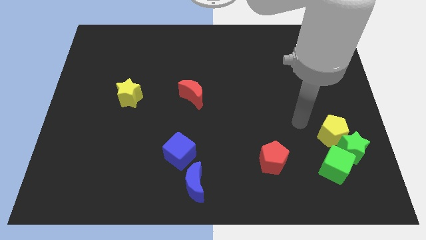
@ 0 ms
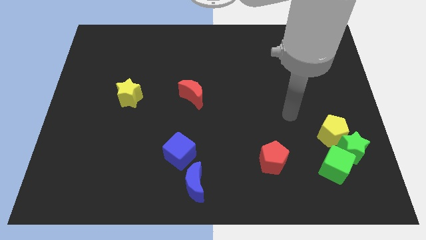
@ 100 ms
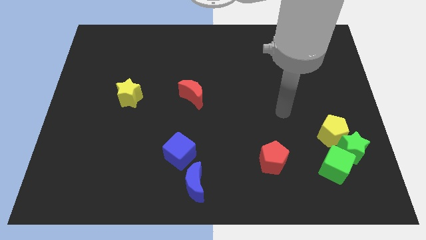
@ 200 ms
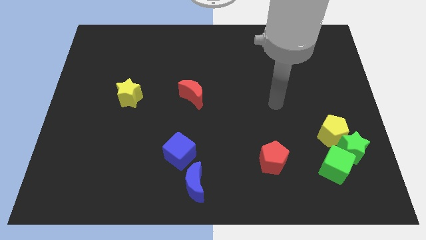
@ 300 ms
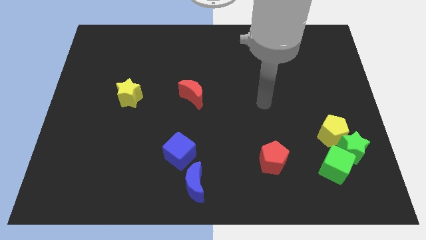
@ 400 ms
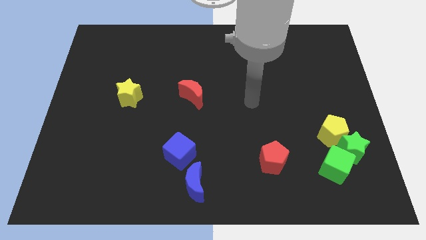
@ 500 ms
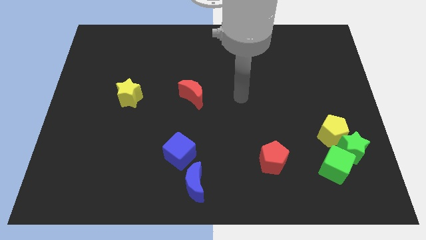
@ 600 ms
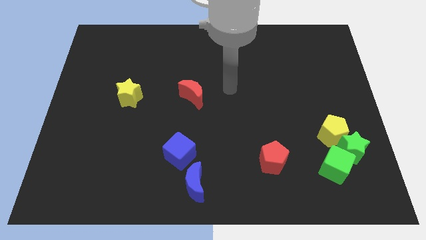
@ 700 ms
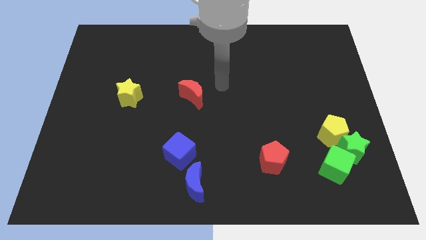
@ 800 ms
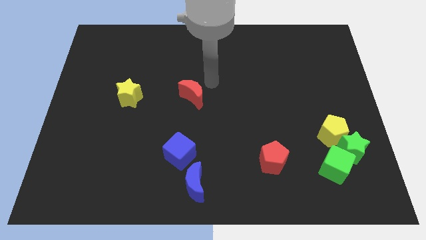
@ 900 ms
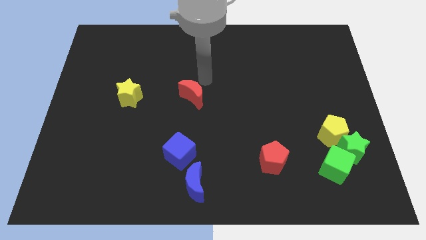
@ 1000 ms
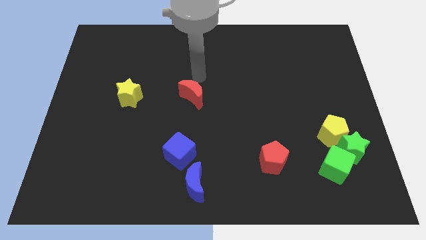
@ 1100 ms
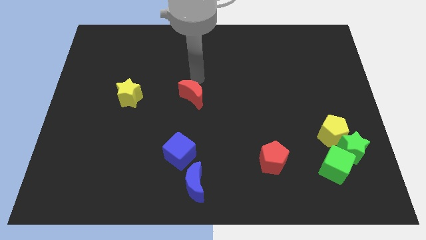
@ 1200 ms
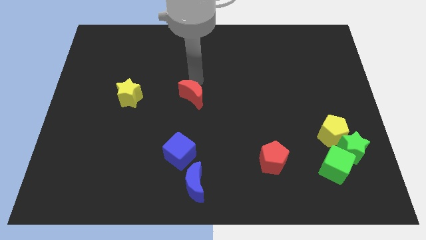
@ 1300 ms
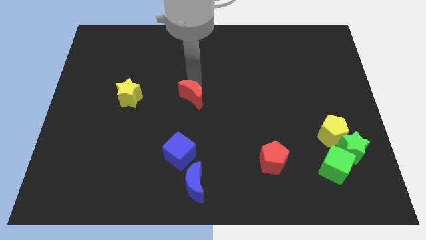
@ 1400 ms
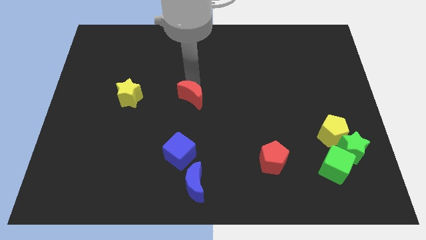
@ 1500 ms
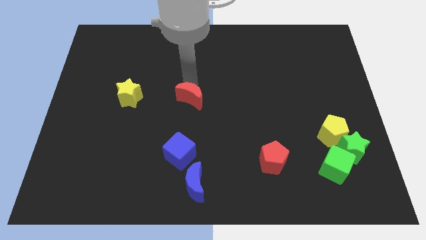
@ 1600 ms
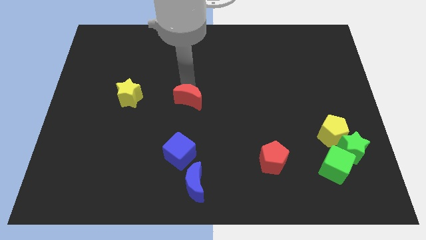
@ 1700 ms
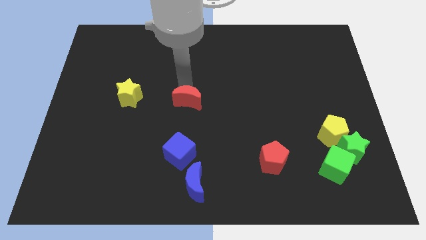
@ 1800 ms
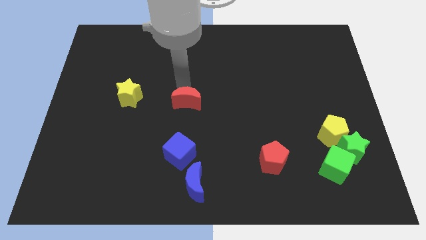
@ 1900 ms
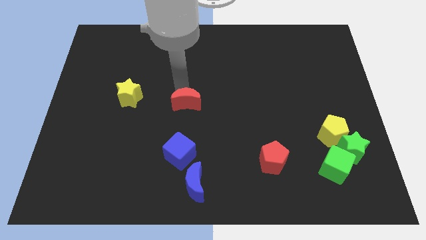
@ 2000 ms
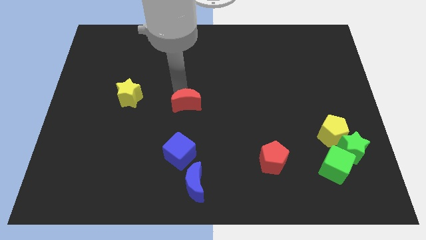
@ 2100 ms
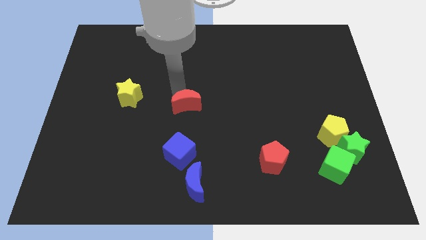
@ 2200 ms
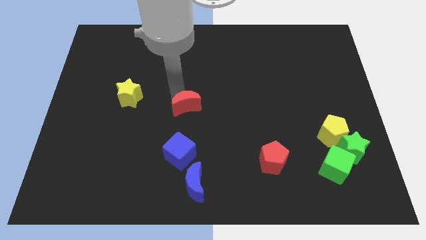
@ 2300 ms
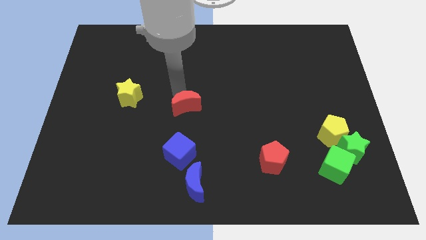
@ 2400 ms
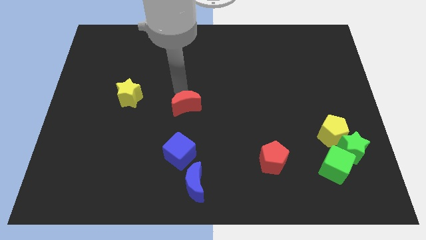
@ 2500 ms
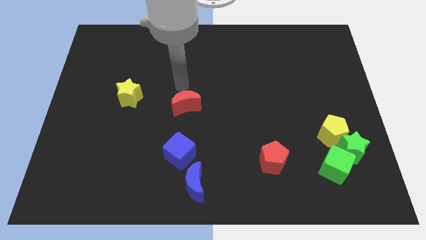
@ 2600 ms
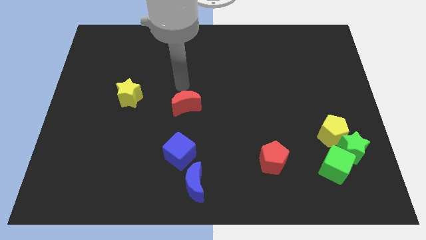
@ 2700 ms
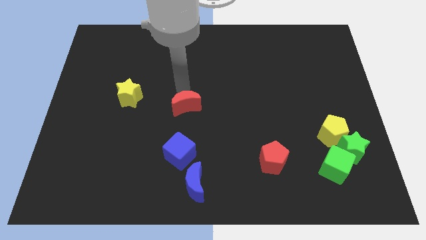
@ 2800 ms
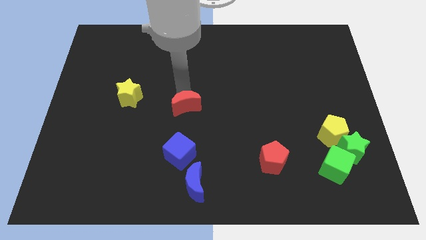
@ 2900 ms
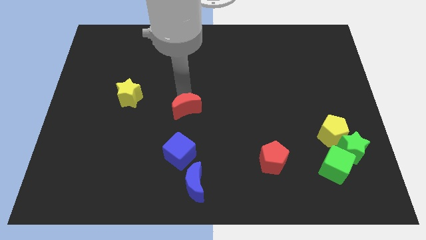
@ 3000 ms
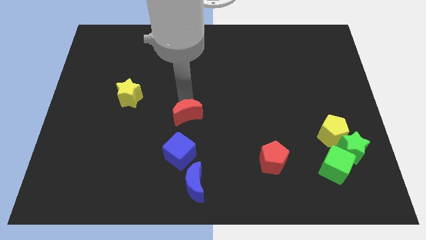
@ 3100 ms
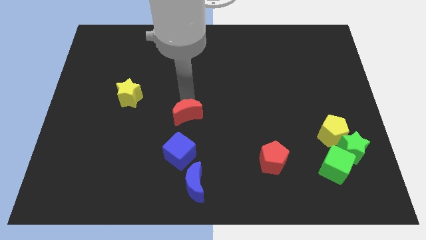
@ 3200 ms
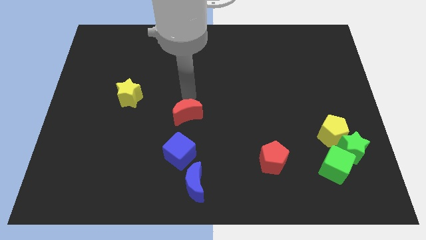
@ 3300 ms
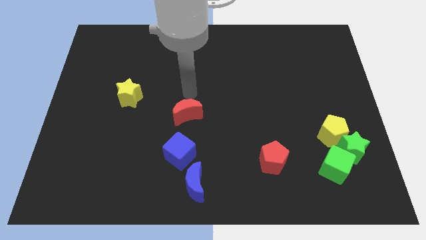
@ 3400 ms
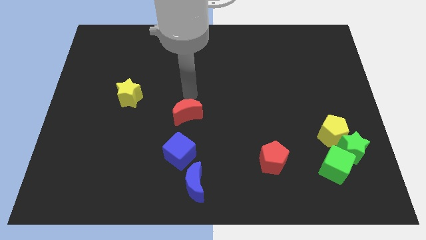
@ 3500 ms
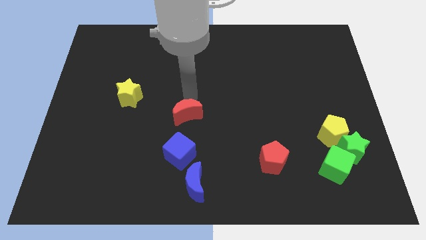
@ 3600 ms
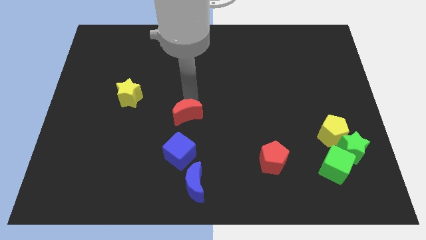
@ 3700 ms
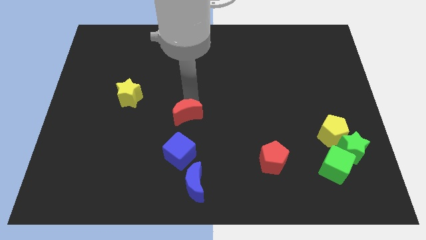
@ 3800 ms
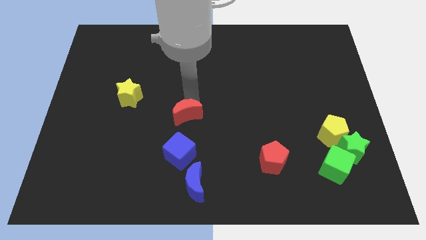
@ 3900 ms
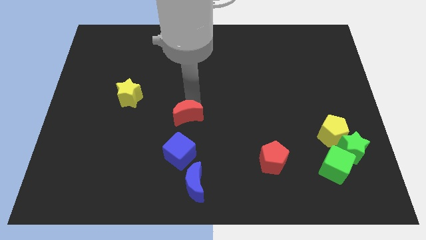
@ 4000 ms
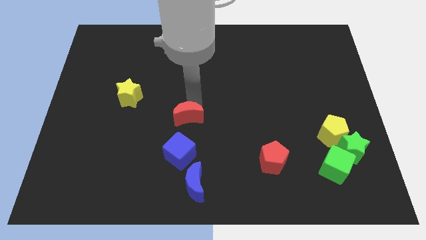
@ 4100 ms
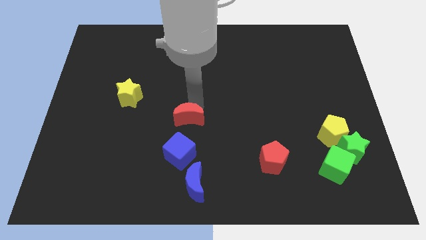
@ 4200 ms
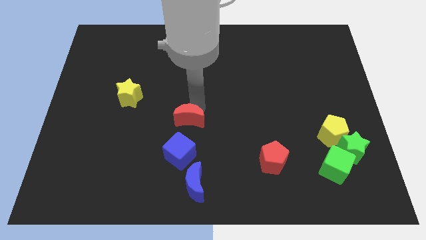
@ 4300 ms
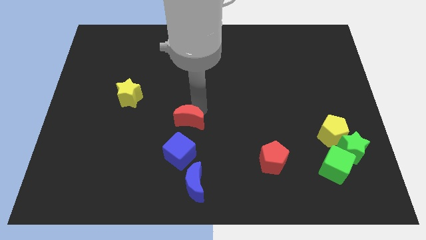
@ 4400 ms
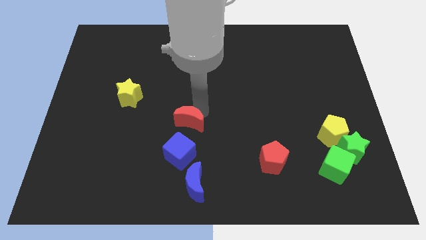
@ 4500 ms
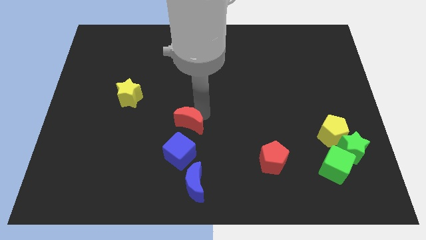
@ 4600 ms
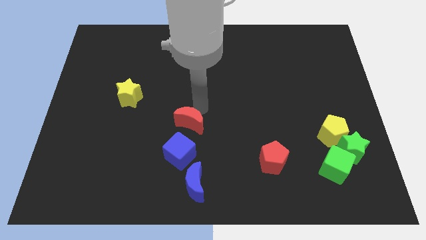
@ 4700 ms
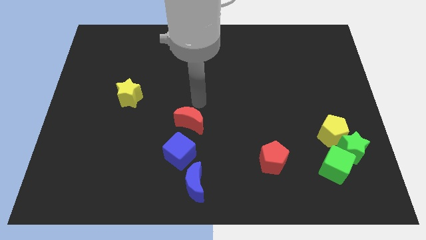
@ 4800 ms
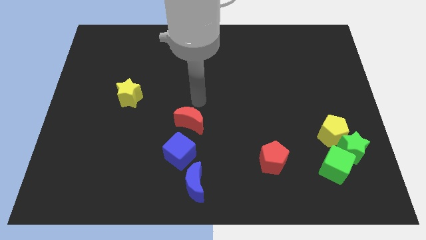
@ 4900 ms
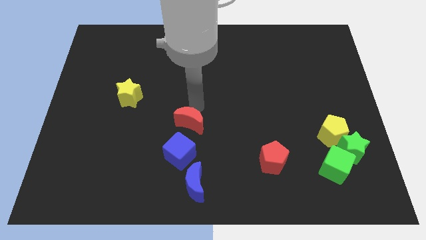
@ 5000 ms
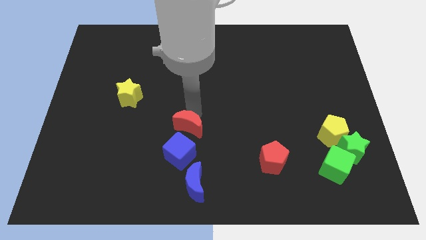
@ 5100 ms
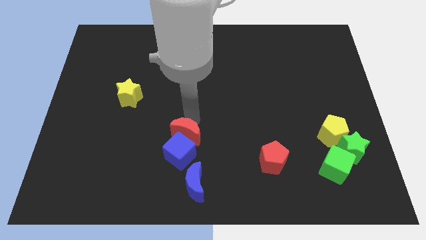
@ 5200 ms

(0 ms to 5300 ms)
put the red moon next to the blue cube

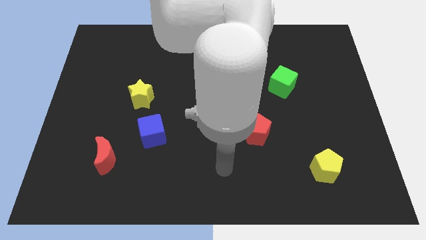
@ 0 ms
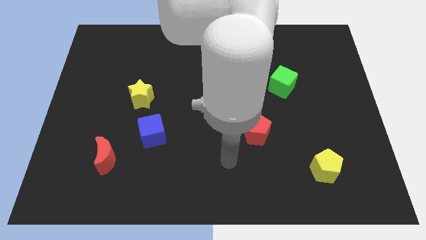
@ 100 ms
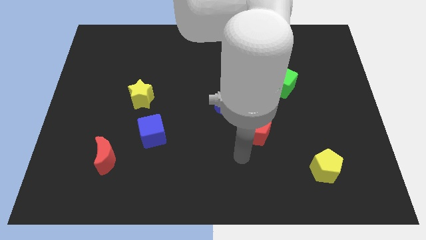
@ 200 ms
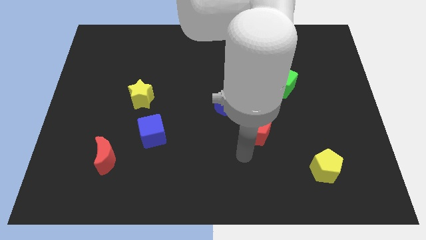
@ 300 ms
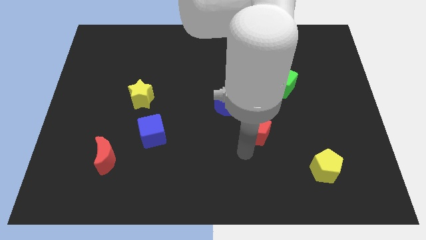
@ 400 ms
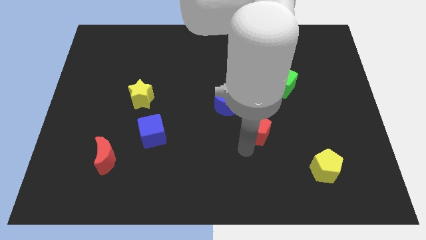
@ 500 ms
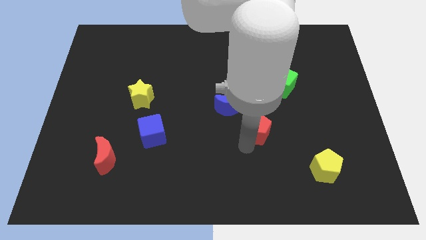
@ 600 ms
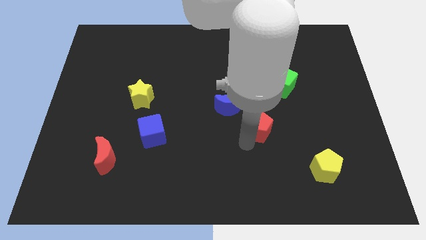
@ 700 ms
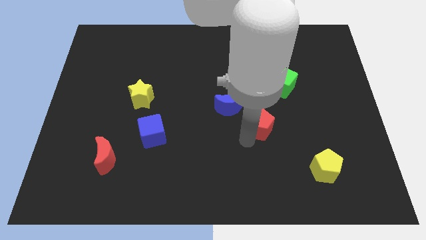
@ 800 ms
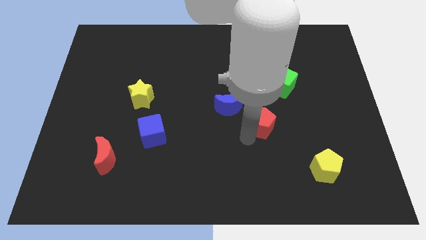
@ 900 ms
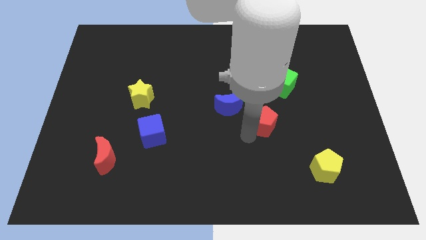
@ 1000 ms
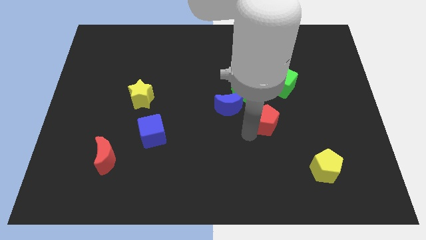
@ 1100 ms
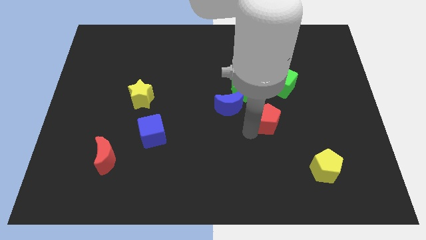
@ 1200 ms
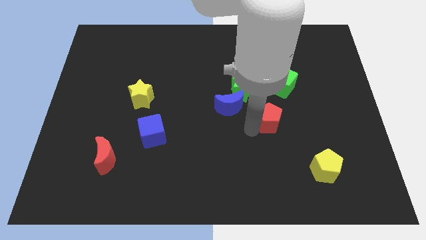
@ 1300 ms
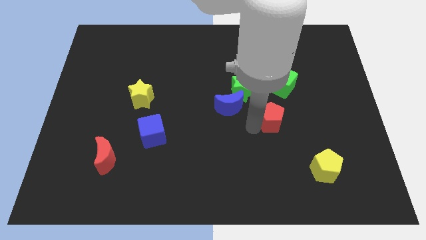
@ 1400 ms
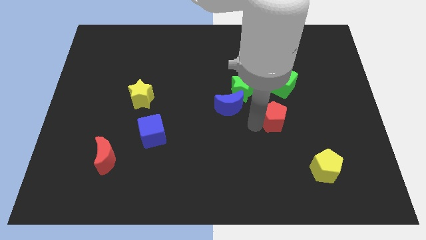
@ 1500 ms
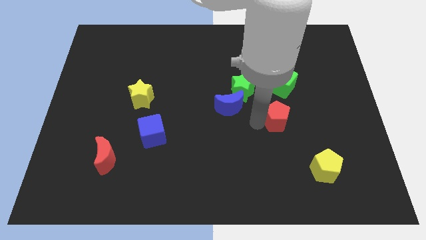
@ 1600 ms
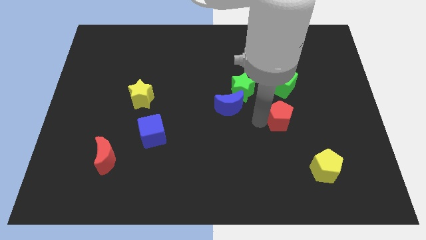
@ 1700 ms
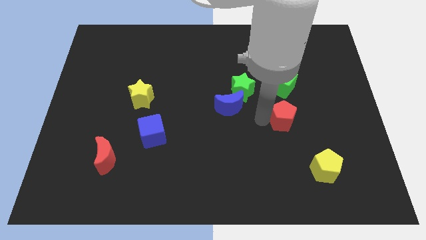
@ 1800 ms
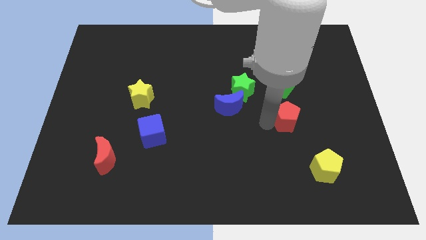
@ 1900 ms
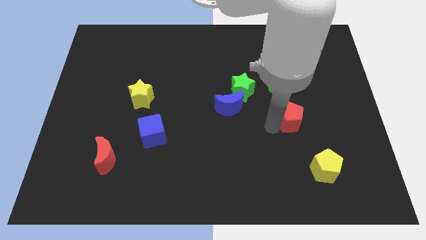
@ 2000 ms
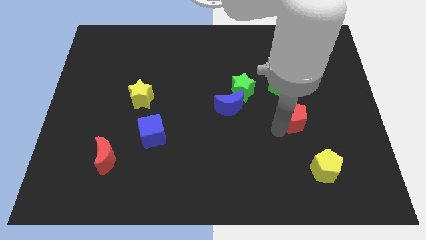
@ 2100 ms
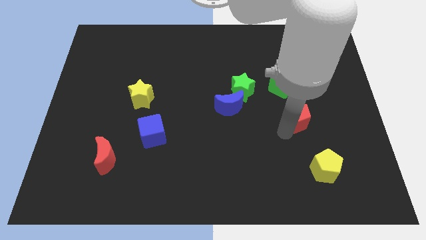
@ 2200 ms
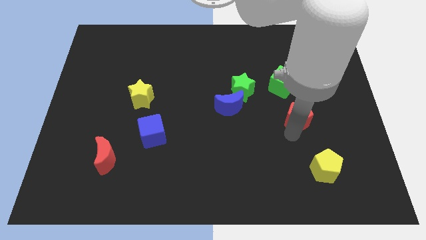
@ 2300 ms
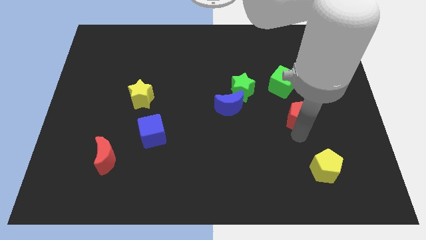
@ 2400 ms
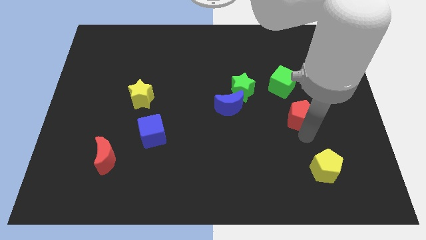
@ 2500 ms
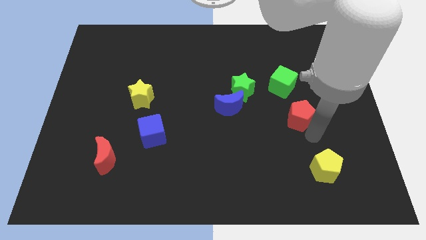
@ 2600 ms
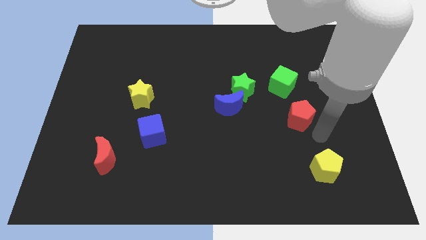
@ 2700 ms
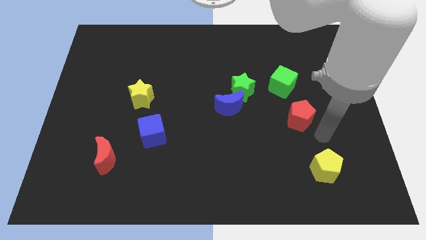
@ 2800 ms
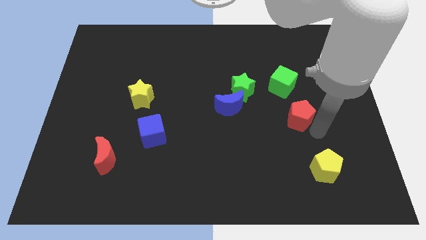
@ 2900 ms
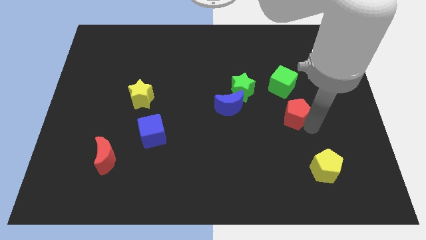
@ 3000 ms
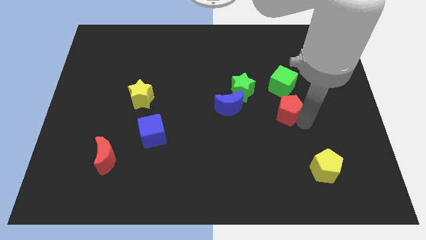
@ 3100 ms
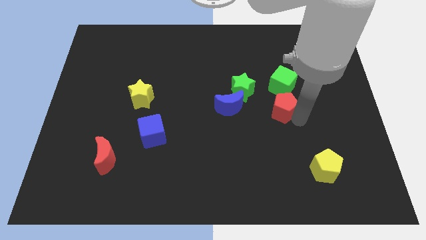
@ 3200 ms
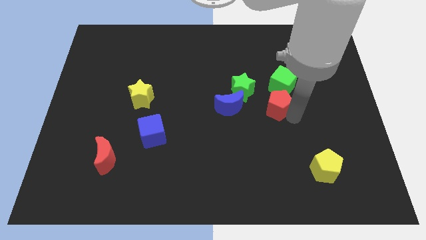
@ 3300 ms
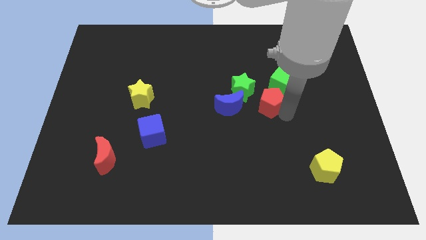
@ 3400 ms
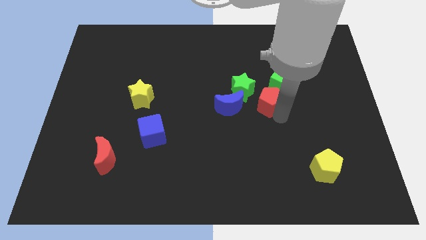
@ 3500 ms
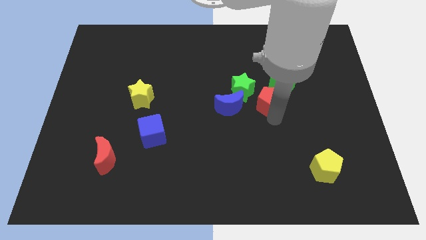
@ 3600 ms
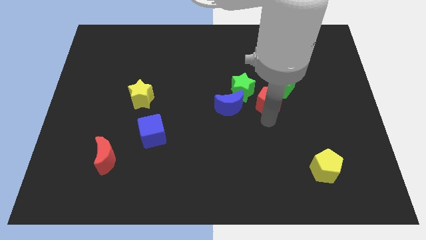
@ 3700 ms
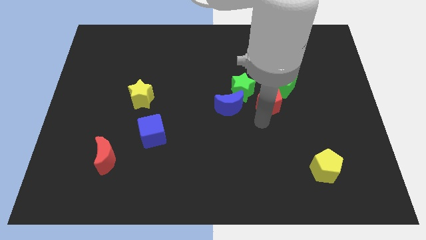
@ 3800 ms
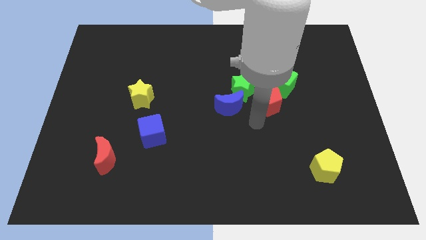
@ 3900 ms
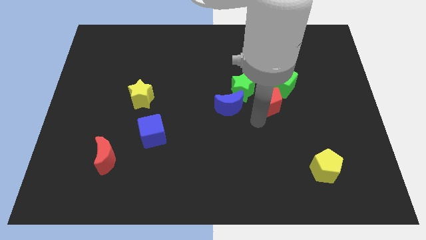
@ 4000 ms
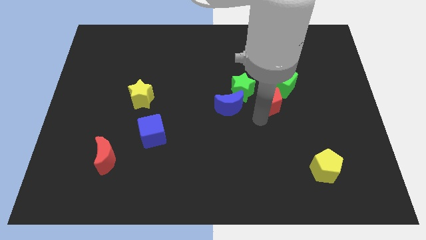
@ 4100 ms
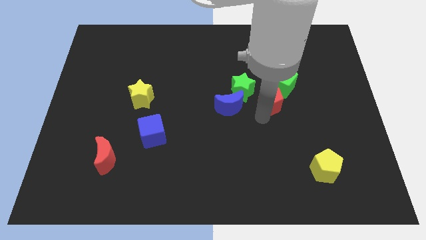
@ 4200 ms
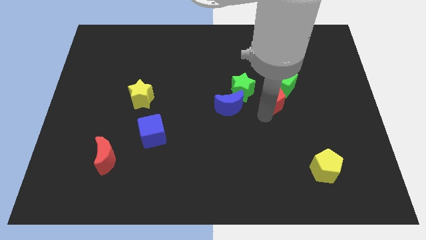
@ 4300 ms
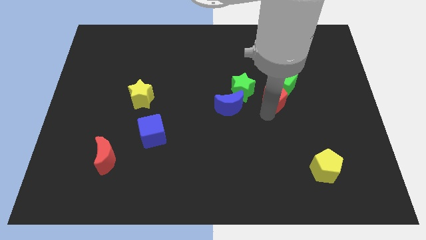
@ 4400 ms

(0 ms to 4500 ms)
push the red pentagon to the green cube
